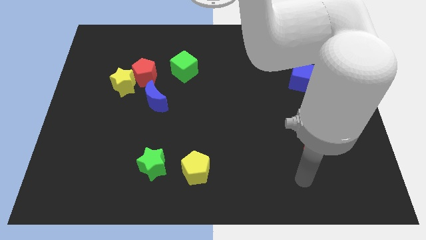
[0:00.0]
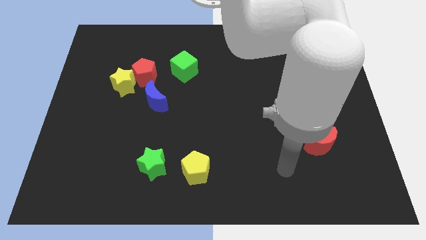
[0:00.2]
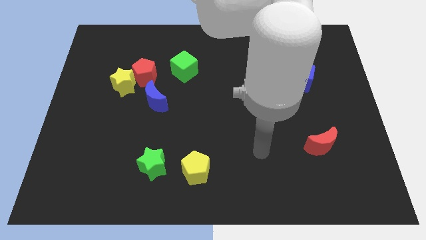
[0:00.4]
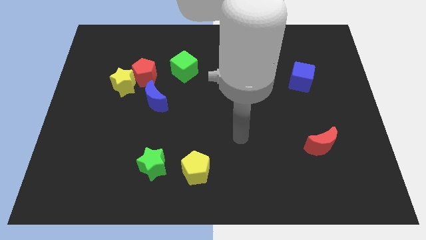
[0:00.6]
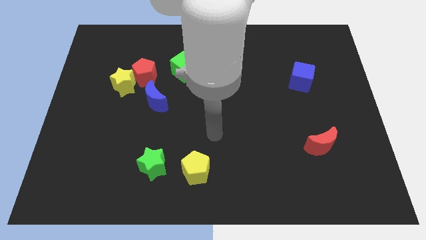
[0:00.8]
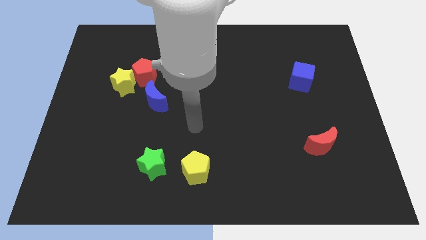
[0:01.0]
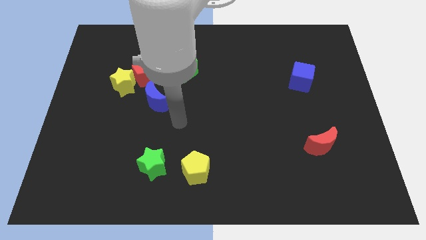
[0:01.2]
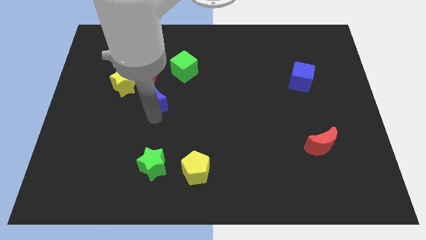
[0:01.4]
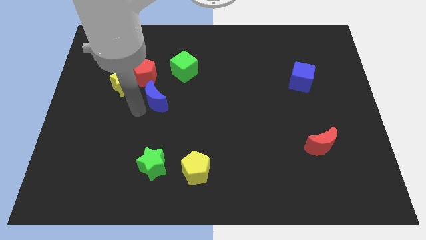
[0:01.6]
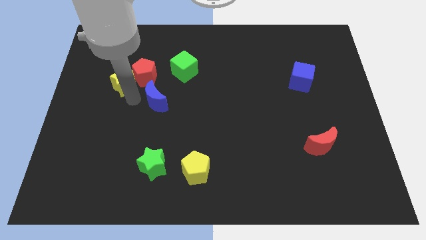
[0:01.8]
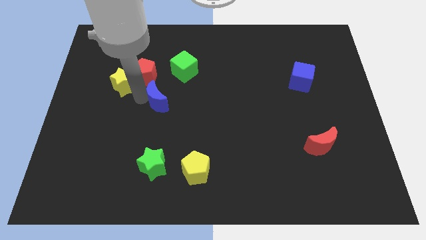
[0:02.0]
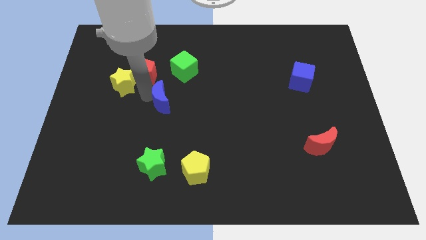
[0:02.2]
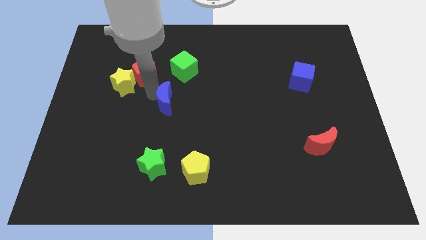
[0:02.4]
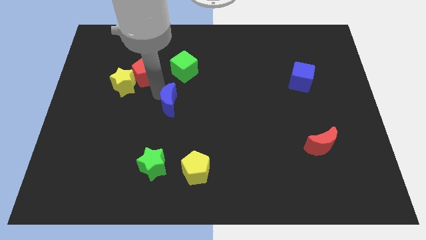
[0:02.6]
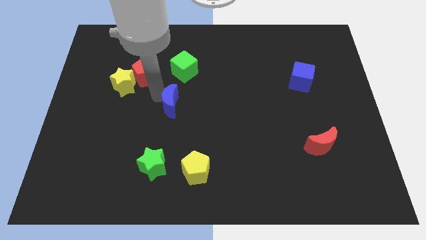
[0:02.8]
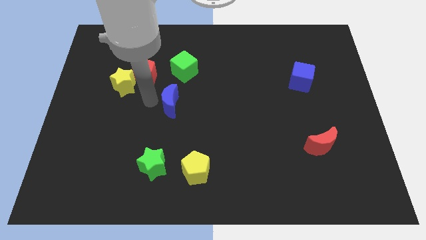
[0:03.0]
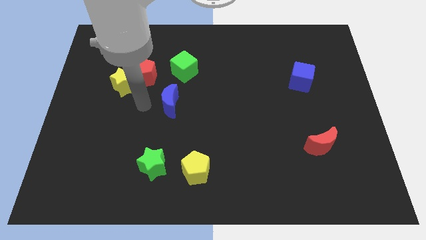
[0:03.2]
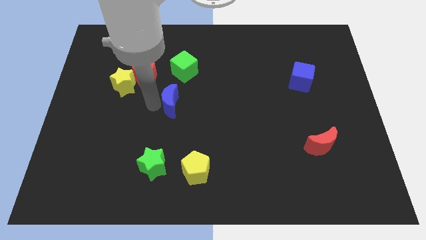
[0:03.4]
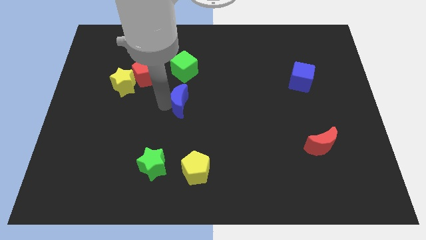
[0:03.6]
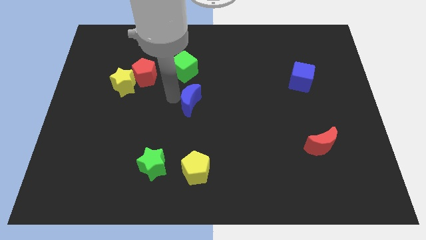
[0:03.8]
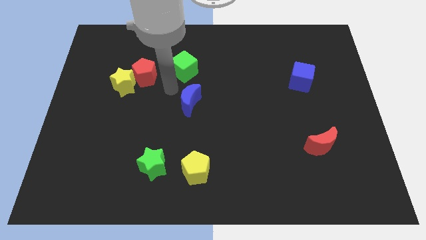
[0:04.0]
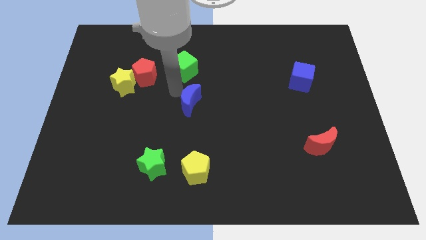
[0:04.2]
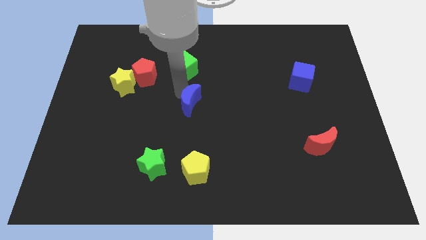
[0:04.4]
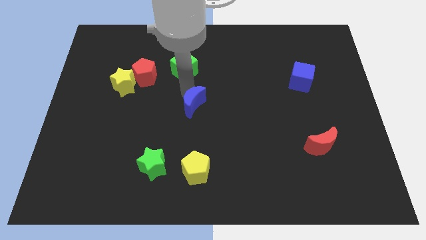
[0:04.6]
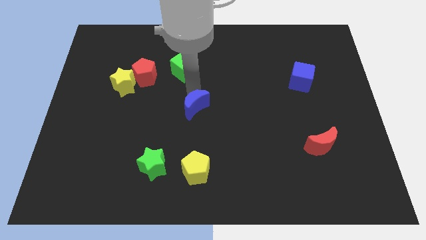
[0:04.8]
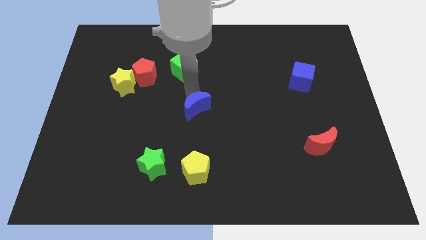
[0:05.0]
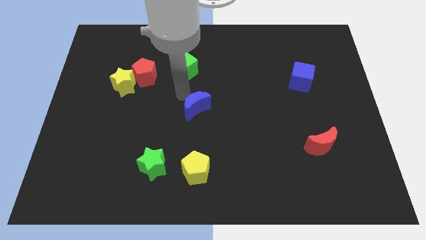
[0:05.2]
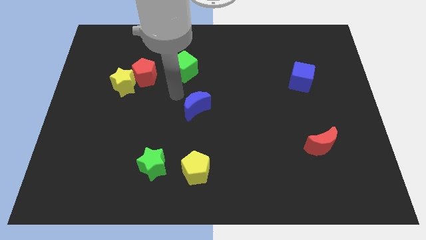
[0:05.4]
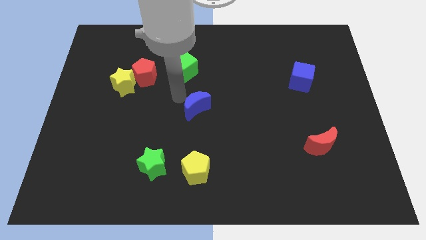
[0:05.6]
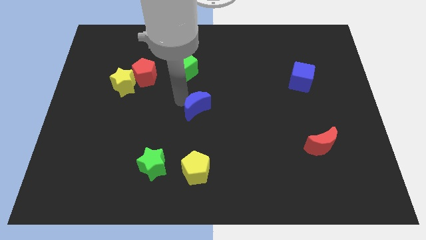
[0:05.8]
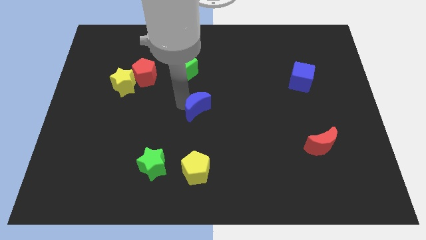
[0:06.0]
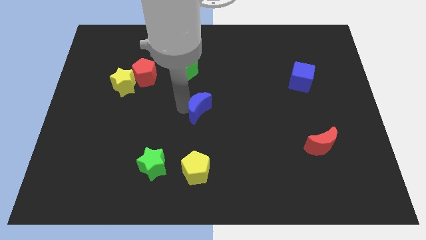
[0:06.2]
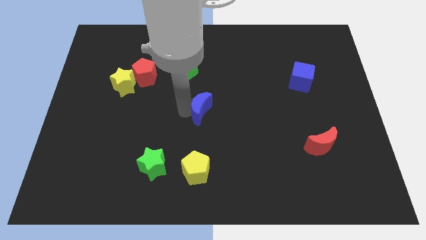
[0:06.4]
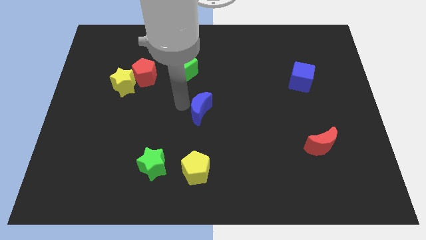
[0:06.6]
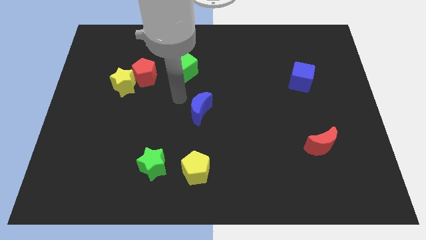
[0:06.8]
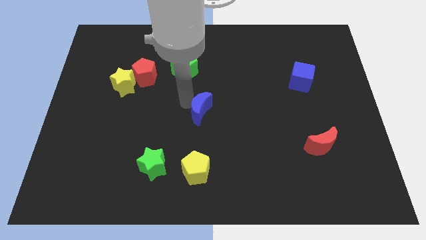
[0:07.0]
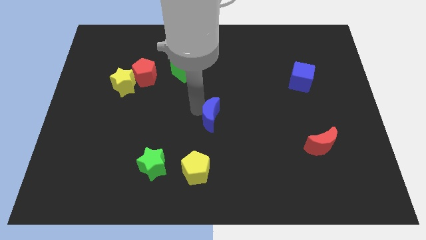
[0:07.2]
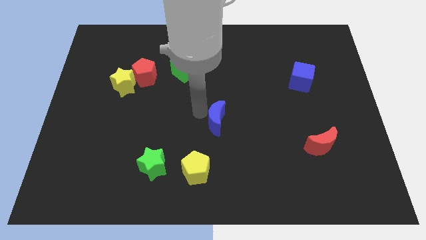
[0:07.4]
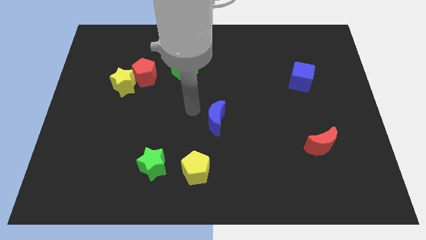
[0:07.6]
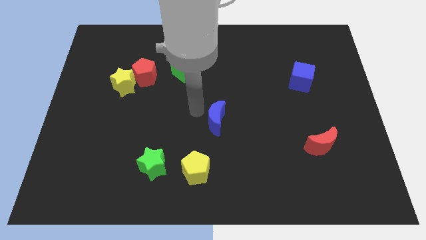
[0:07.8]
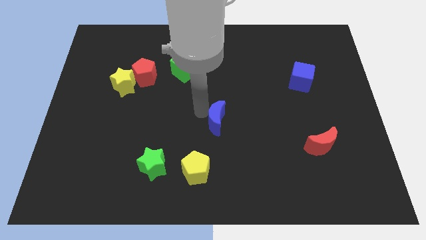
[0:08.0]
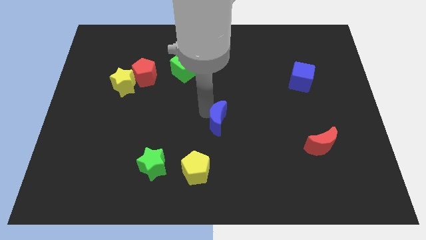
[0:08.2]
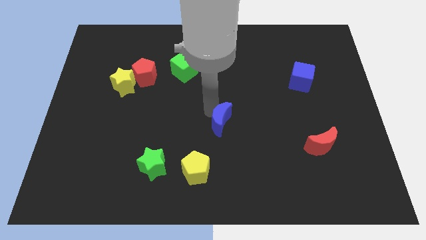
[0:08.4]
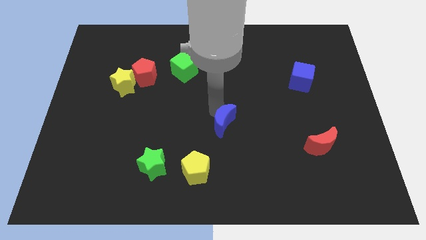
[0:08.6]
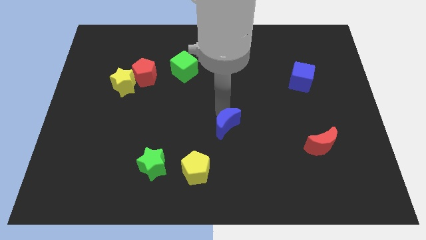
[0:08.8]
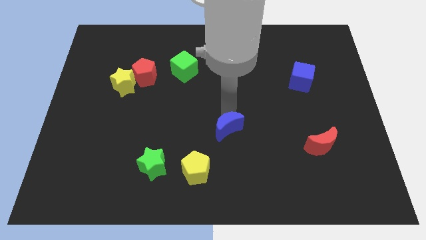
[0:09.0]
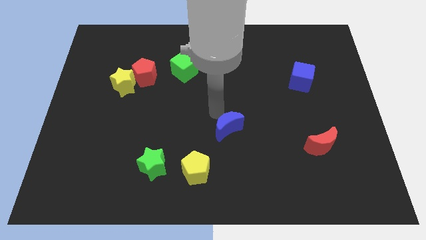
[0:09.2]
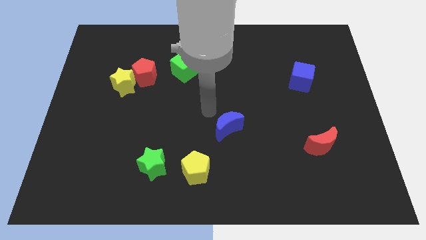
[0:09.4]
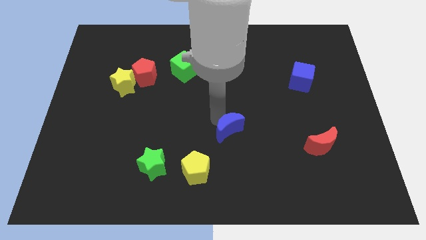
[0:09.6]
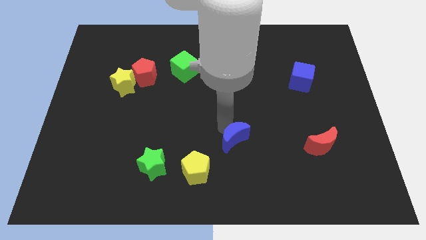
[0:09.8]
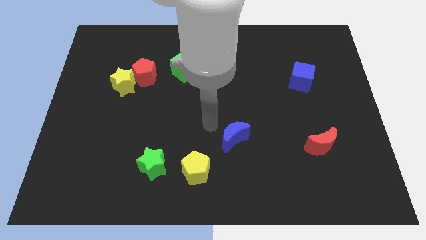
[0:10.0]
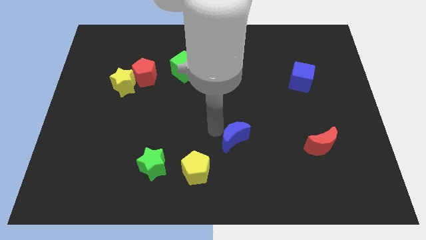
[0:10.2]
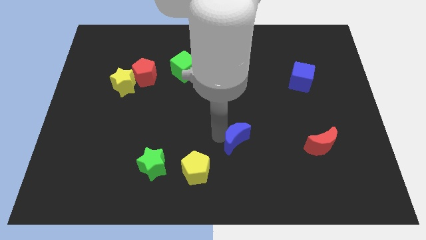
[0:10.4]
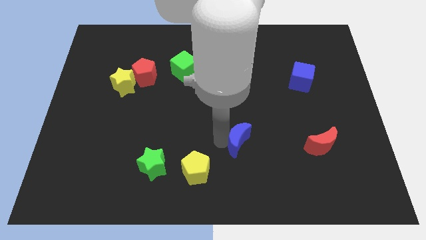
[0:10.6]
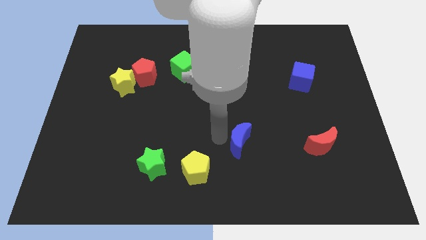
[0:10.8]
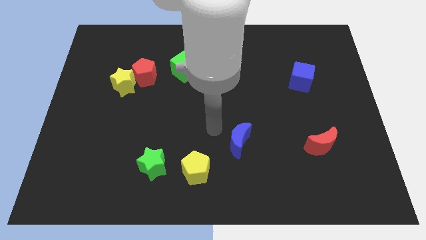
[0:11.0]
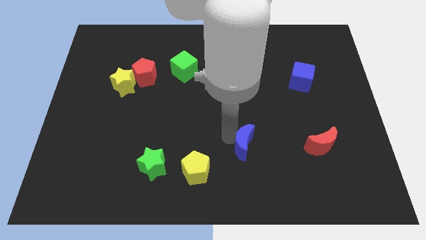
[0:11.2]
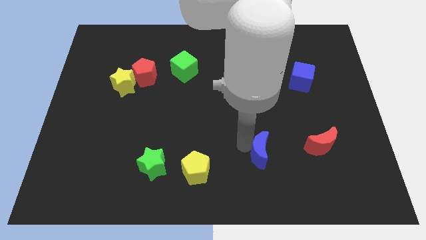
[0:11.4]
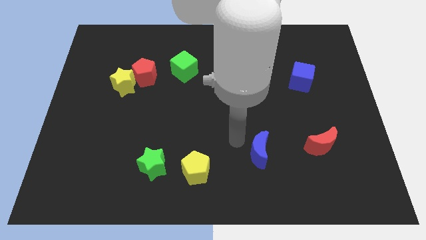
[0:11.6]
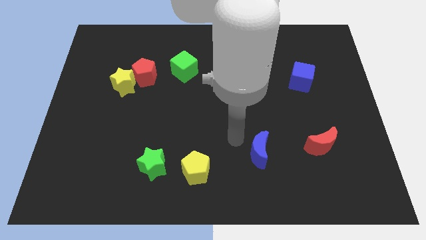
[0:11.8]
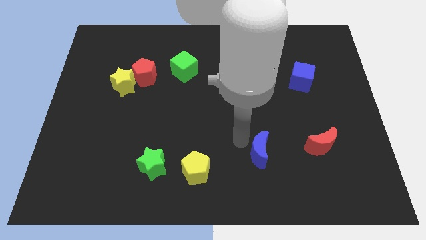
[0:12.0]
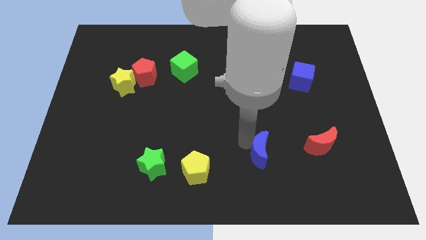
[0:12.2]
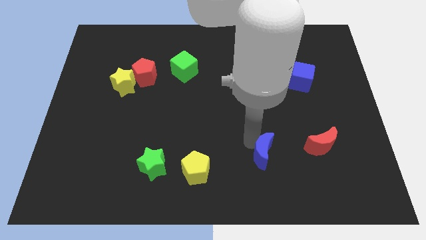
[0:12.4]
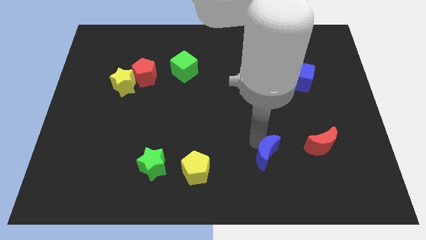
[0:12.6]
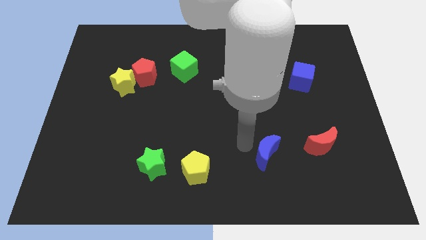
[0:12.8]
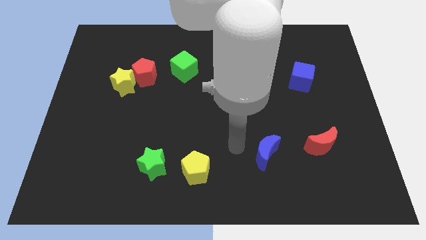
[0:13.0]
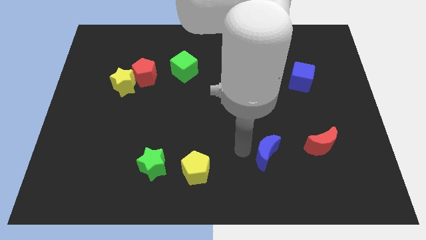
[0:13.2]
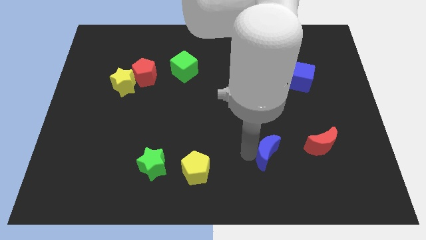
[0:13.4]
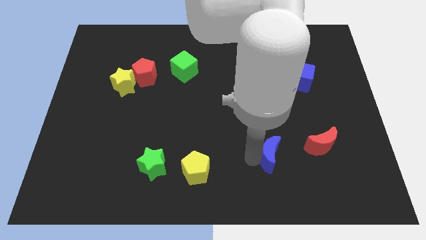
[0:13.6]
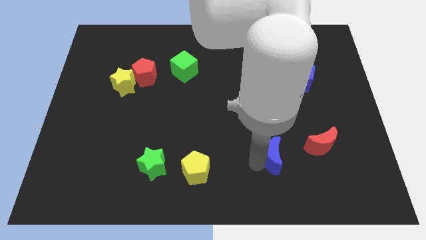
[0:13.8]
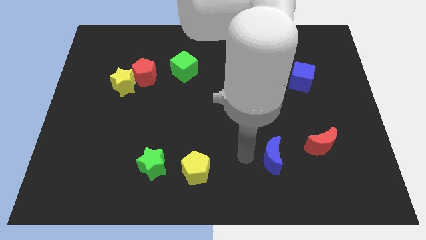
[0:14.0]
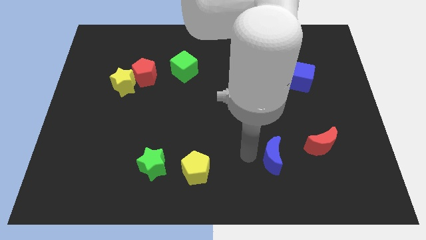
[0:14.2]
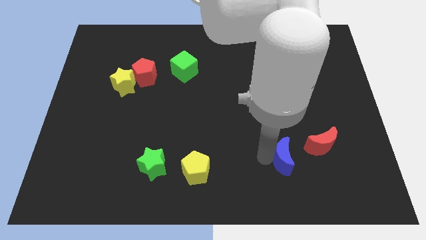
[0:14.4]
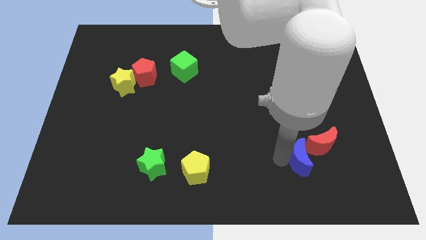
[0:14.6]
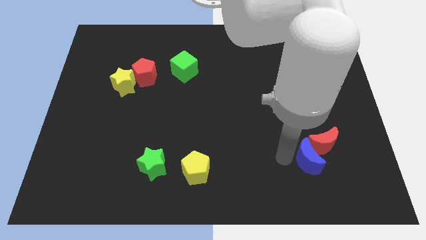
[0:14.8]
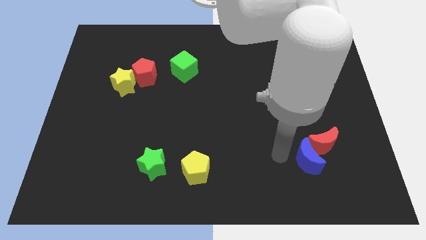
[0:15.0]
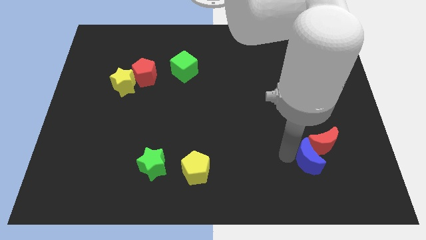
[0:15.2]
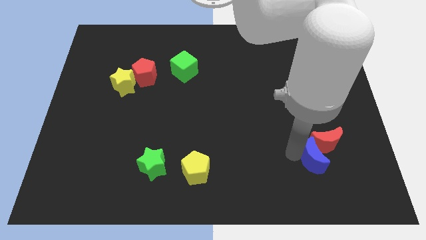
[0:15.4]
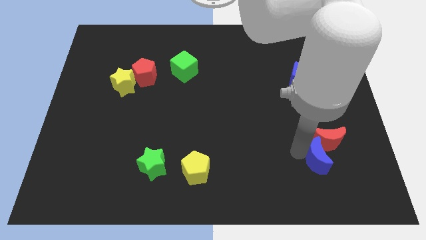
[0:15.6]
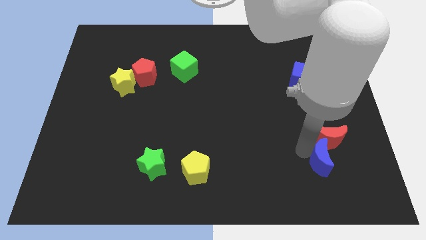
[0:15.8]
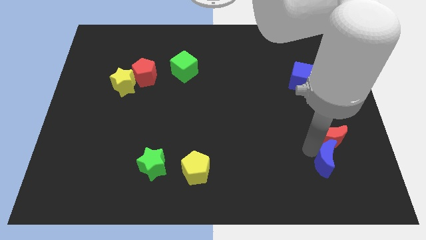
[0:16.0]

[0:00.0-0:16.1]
put the blue moon to the bottom right of the red moon
